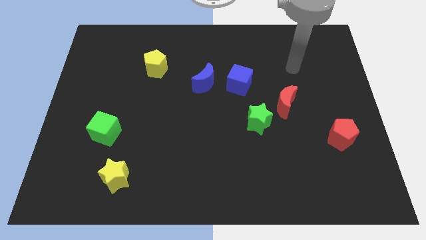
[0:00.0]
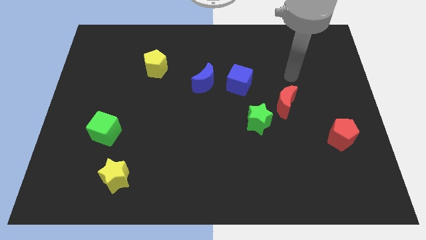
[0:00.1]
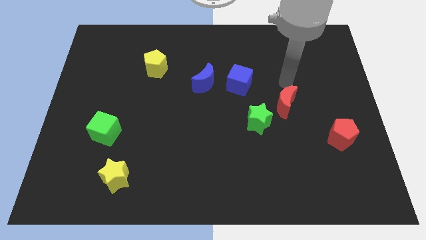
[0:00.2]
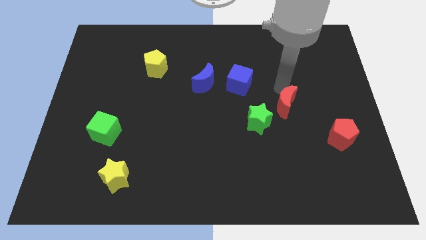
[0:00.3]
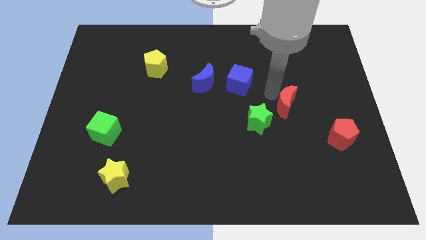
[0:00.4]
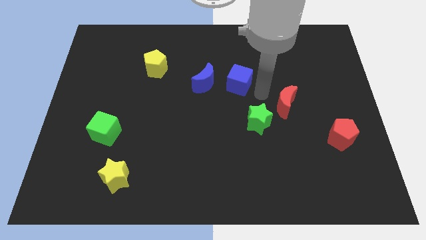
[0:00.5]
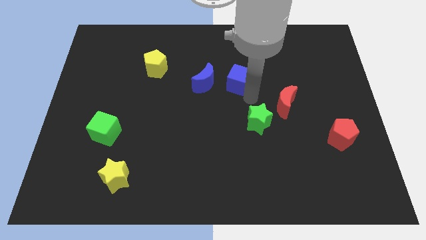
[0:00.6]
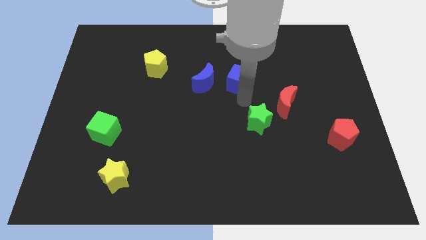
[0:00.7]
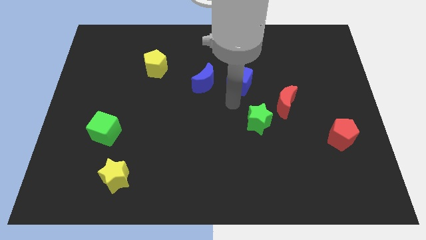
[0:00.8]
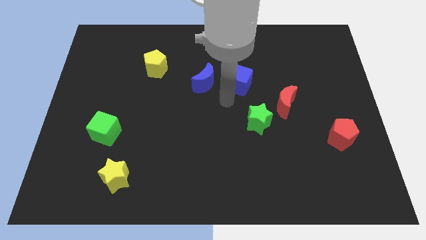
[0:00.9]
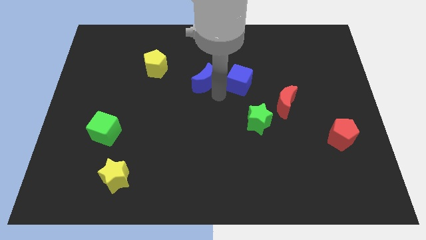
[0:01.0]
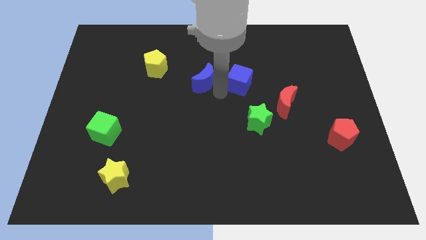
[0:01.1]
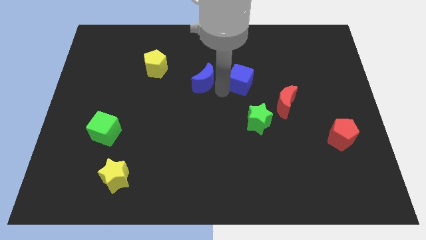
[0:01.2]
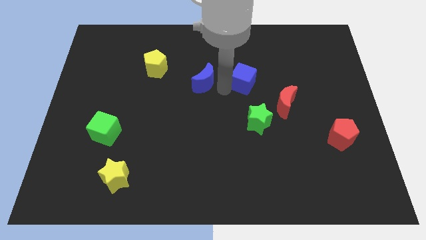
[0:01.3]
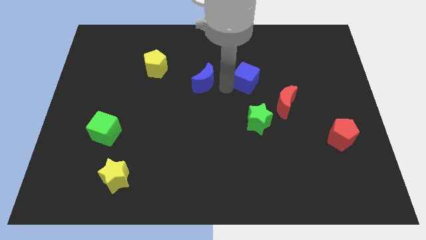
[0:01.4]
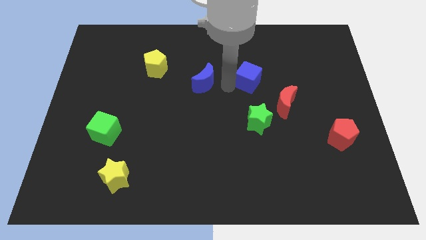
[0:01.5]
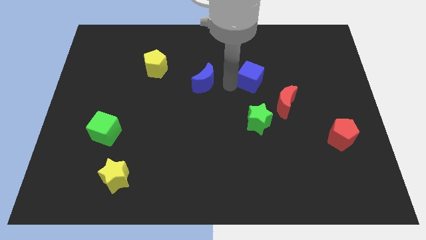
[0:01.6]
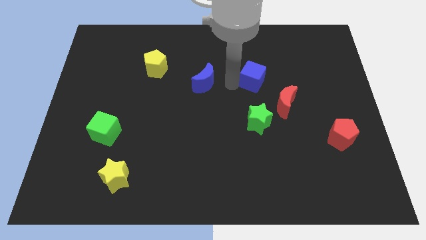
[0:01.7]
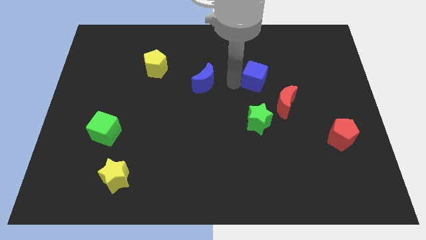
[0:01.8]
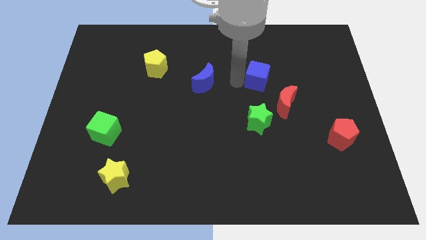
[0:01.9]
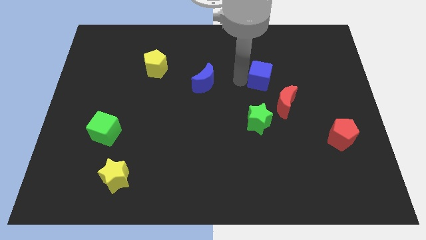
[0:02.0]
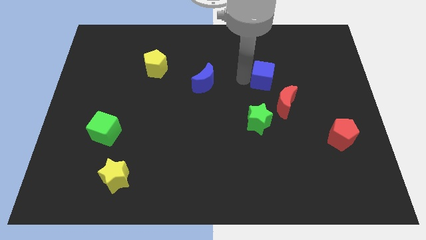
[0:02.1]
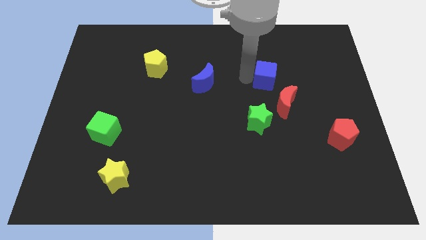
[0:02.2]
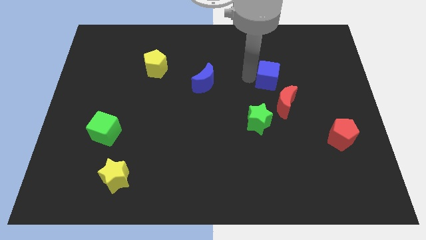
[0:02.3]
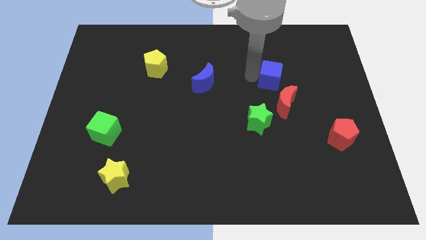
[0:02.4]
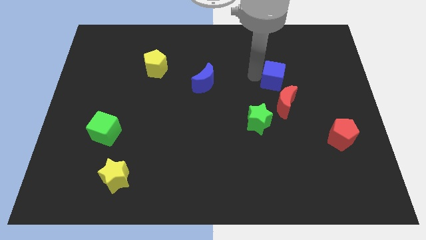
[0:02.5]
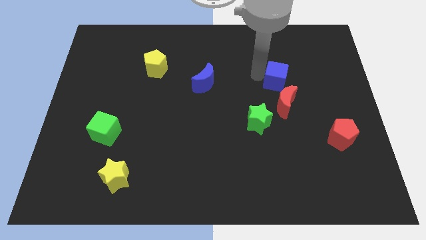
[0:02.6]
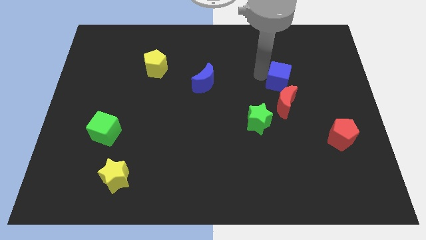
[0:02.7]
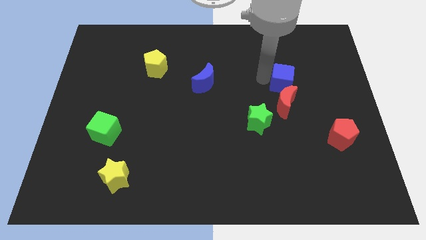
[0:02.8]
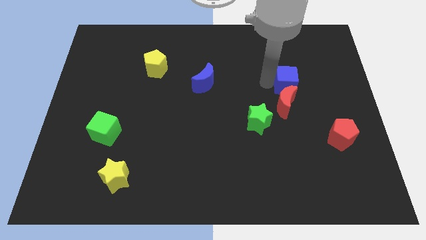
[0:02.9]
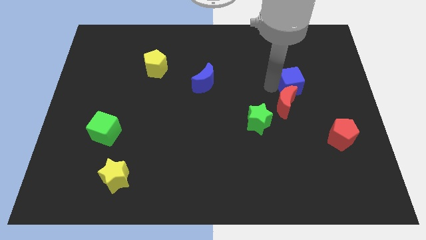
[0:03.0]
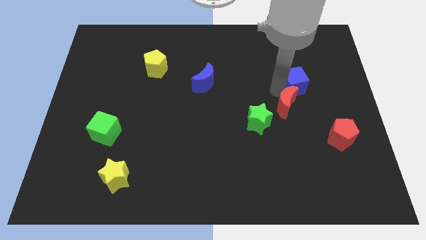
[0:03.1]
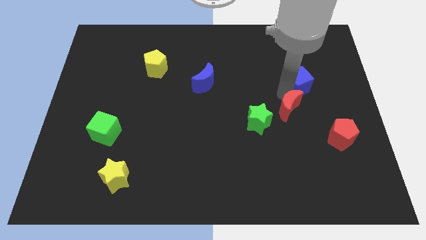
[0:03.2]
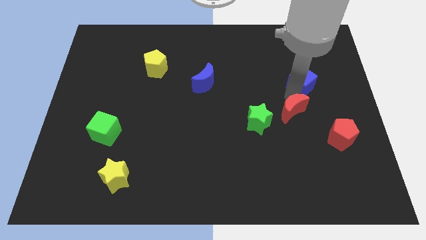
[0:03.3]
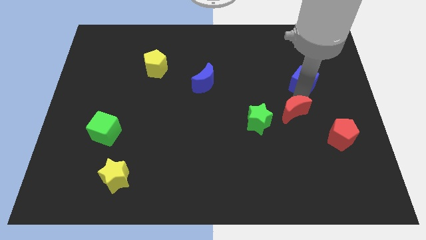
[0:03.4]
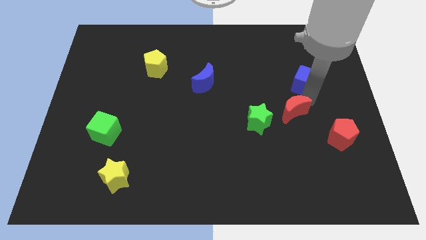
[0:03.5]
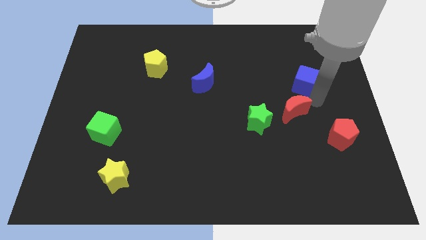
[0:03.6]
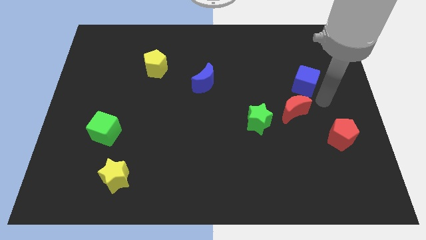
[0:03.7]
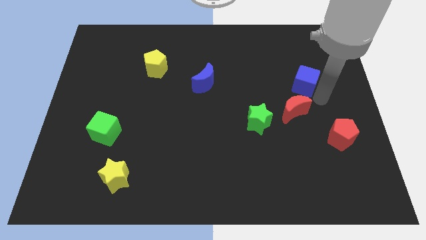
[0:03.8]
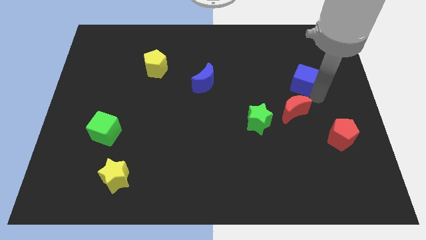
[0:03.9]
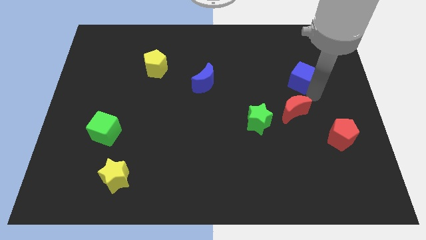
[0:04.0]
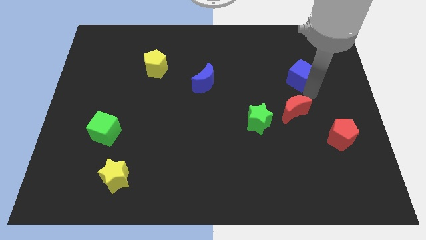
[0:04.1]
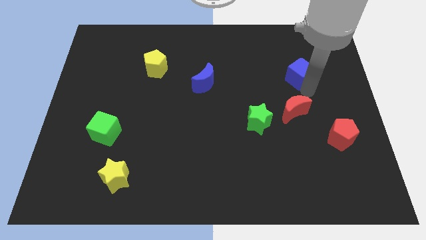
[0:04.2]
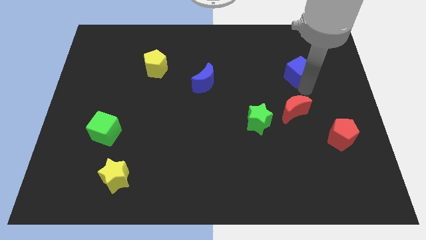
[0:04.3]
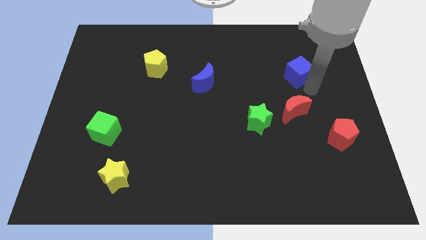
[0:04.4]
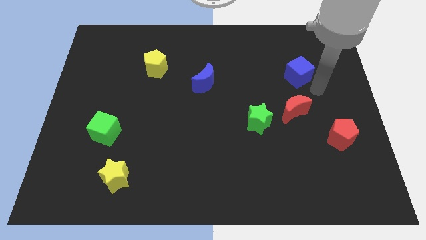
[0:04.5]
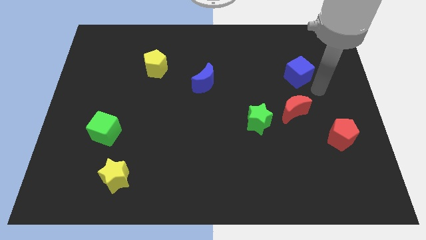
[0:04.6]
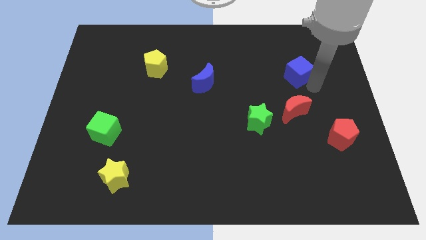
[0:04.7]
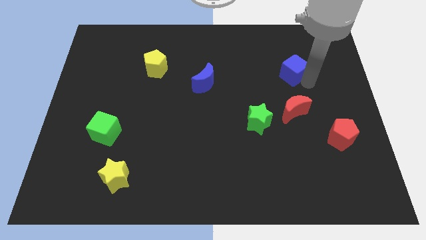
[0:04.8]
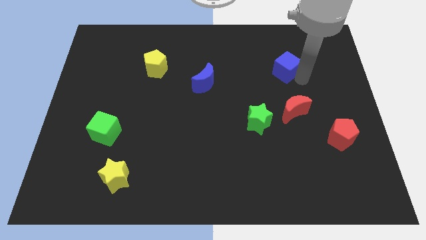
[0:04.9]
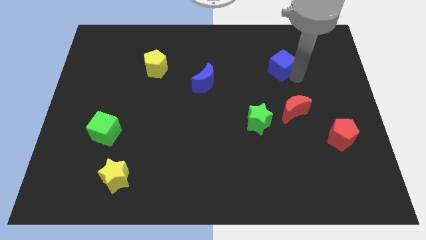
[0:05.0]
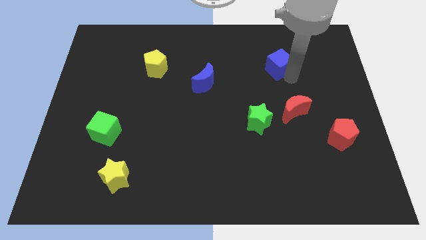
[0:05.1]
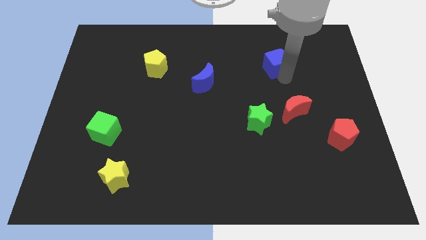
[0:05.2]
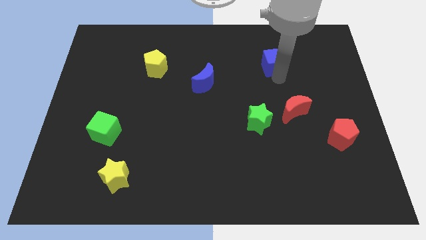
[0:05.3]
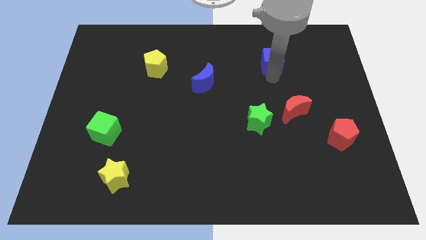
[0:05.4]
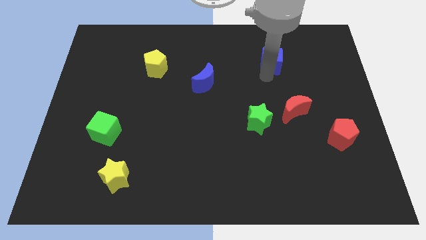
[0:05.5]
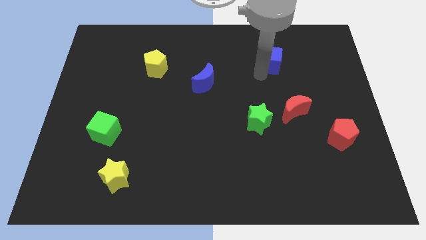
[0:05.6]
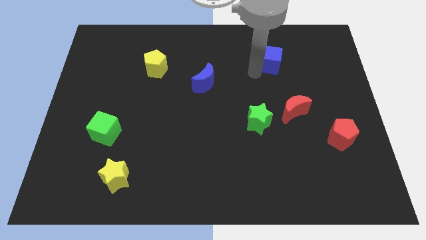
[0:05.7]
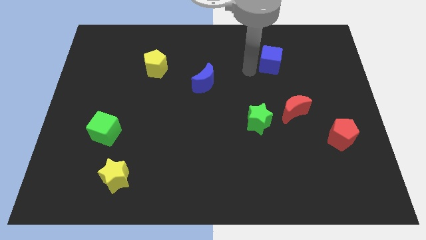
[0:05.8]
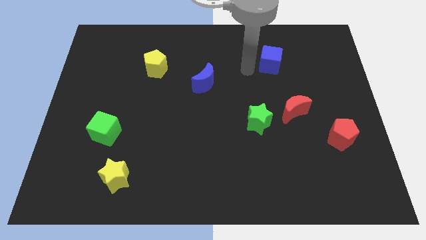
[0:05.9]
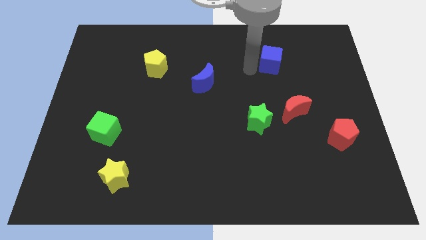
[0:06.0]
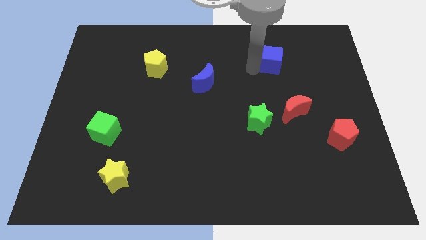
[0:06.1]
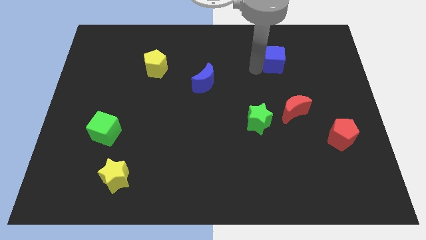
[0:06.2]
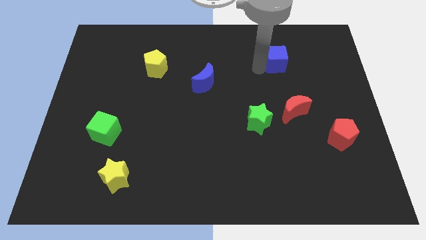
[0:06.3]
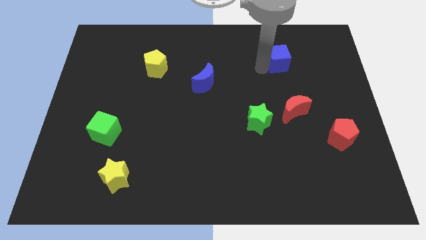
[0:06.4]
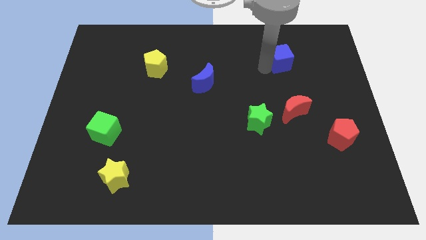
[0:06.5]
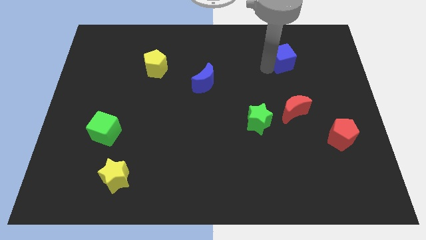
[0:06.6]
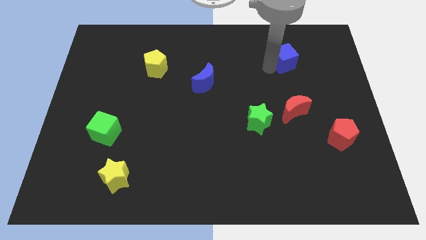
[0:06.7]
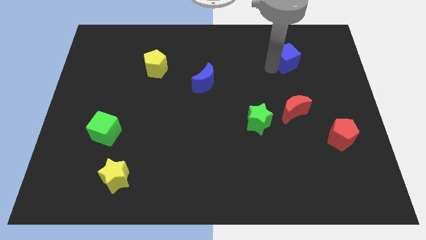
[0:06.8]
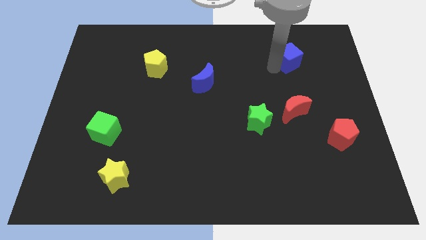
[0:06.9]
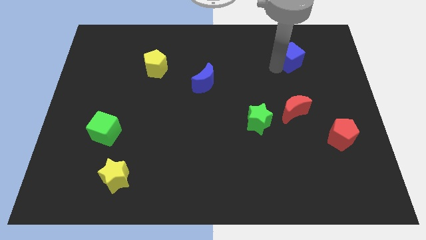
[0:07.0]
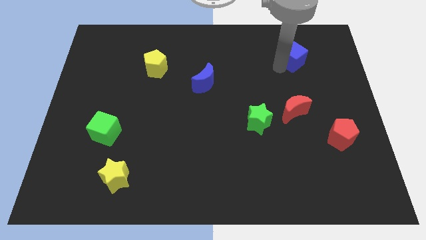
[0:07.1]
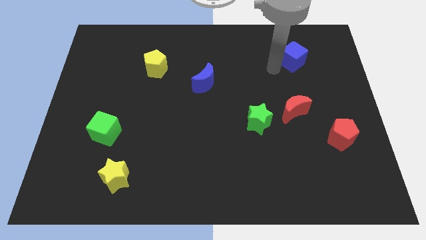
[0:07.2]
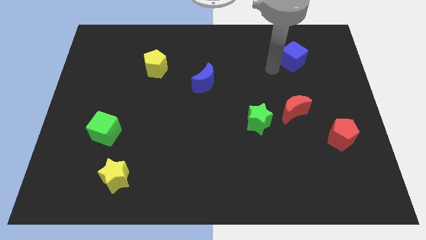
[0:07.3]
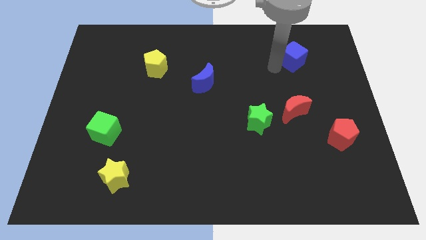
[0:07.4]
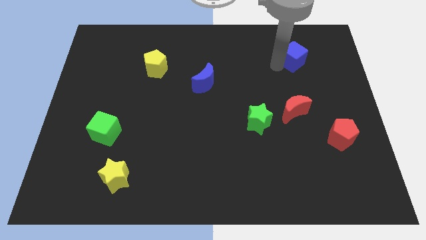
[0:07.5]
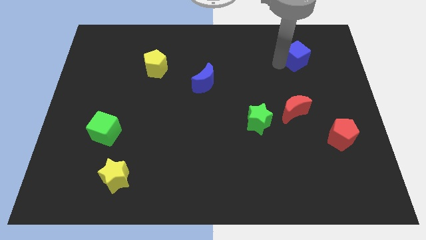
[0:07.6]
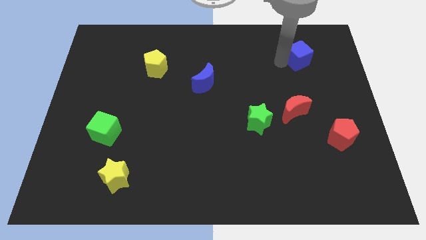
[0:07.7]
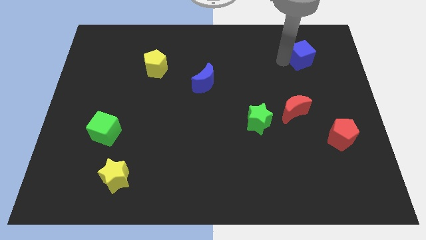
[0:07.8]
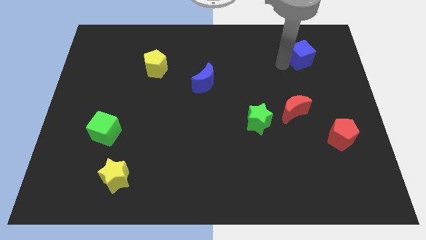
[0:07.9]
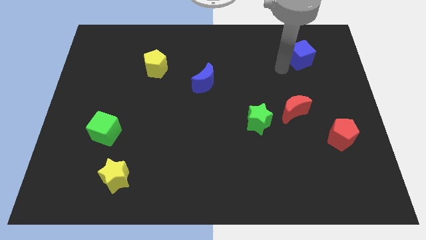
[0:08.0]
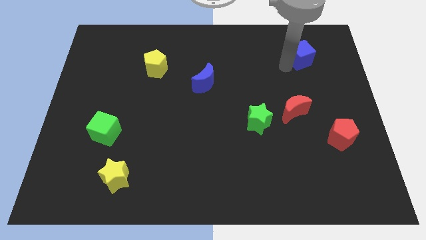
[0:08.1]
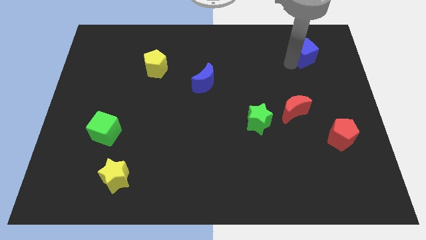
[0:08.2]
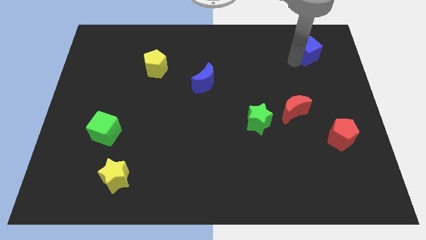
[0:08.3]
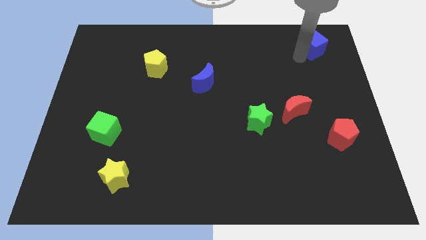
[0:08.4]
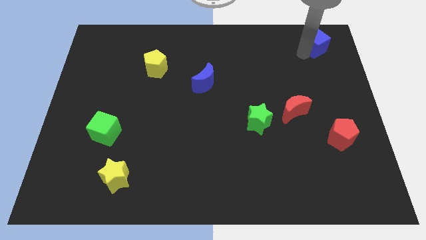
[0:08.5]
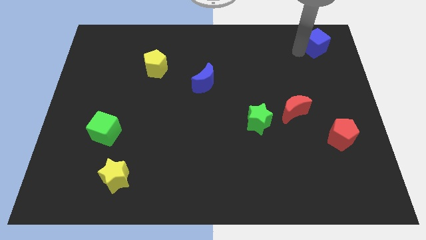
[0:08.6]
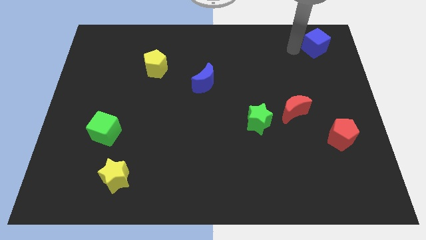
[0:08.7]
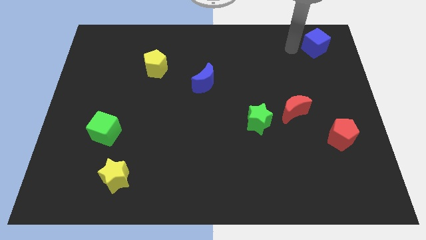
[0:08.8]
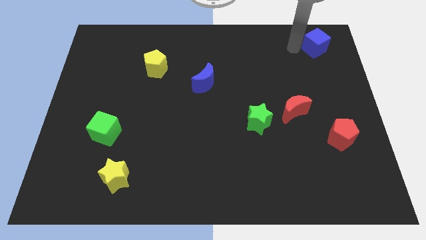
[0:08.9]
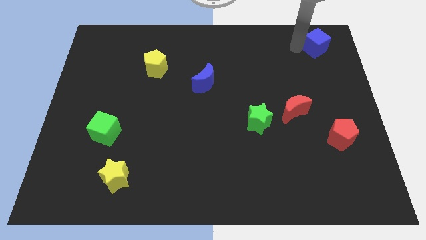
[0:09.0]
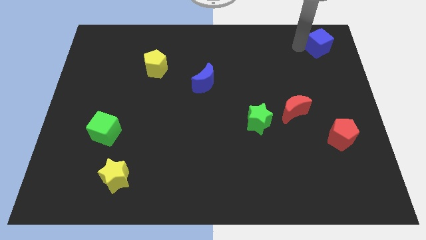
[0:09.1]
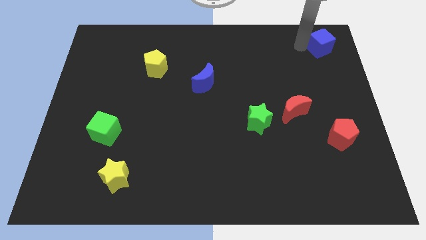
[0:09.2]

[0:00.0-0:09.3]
put the blue cube to the top right corner
